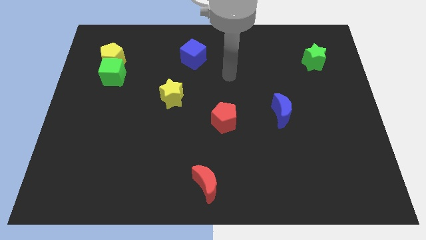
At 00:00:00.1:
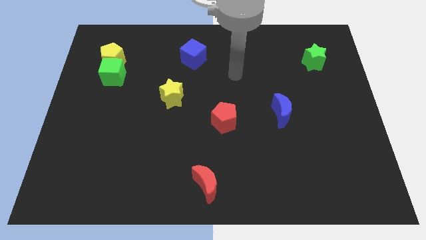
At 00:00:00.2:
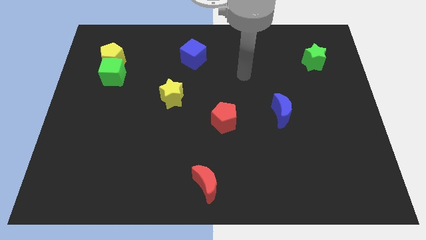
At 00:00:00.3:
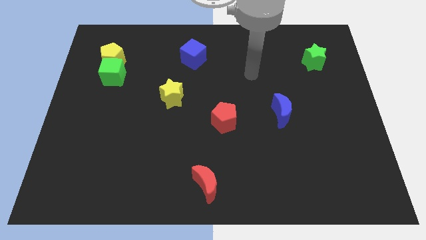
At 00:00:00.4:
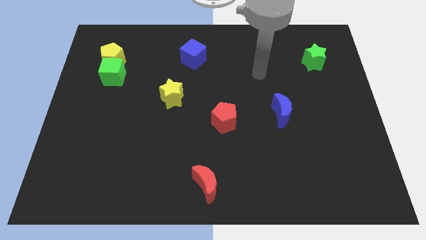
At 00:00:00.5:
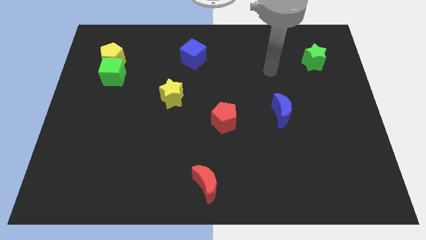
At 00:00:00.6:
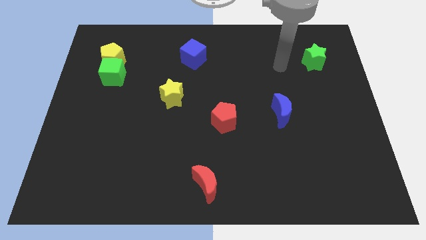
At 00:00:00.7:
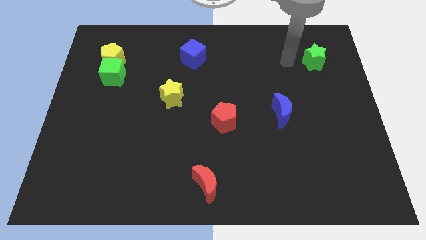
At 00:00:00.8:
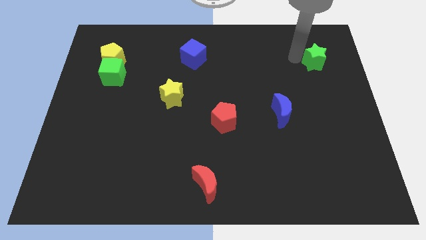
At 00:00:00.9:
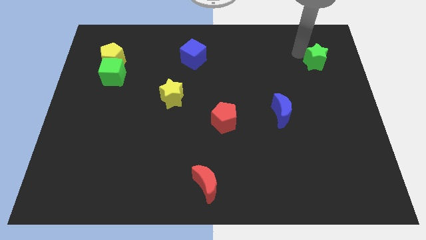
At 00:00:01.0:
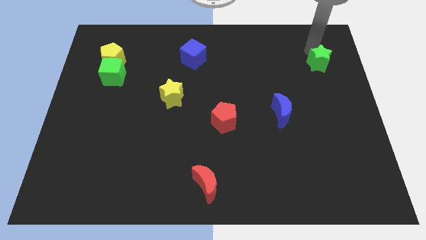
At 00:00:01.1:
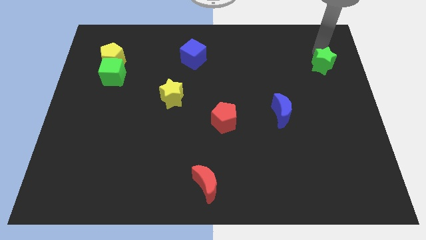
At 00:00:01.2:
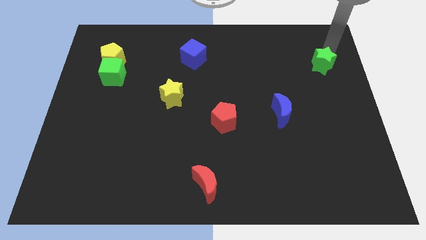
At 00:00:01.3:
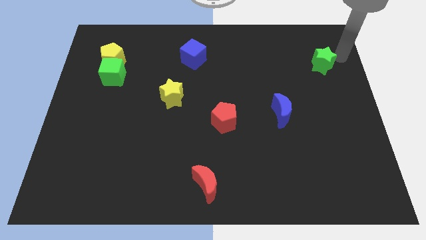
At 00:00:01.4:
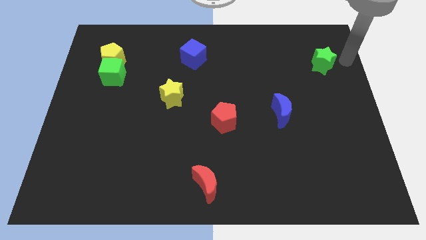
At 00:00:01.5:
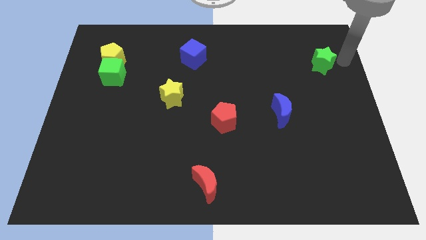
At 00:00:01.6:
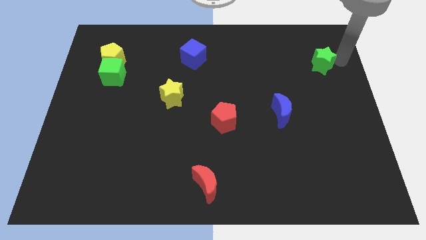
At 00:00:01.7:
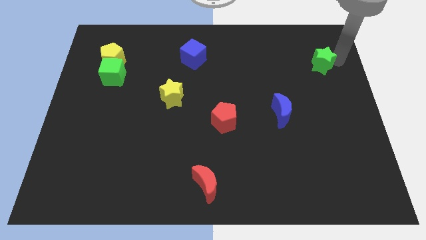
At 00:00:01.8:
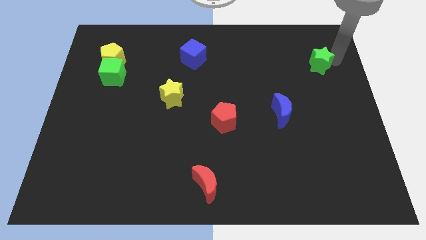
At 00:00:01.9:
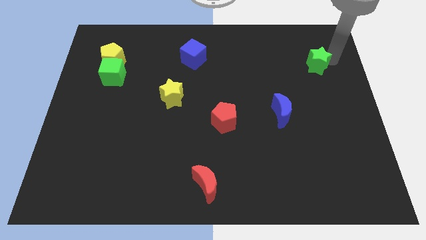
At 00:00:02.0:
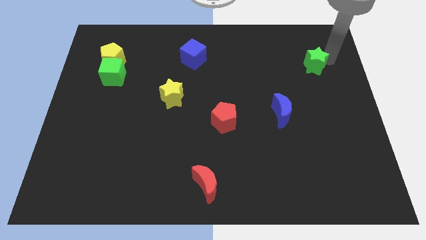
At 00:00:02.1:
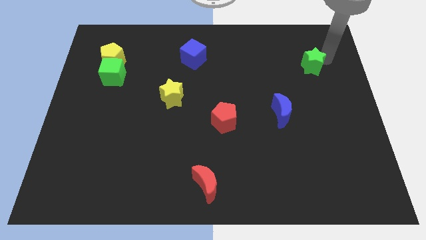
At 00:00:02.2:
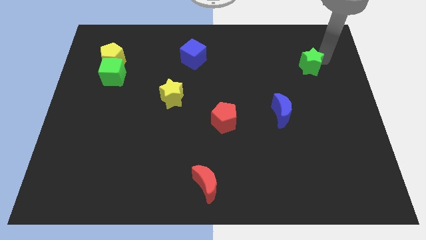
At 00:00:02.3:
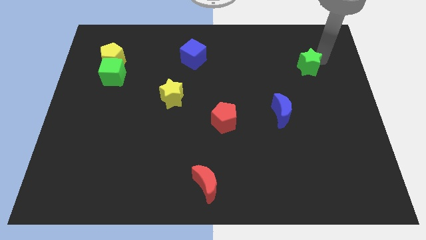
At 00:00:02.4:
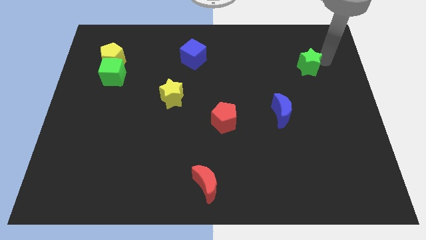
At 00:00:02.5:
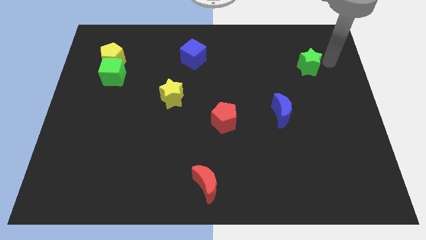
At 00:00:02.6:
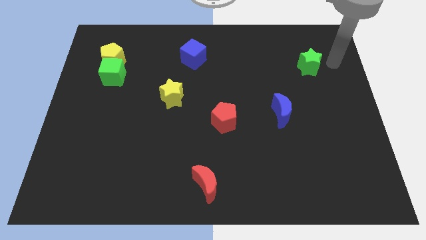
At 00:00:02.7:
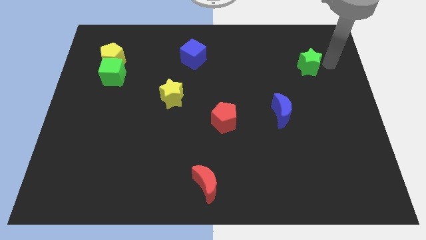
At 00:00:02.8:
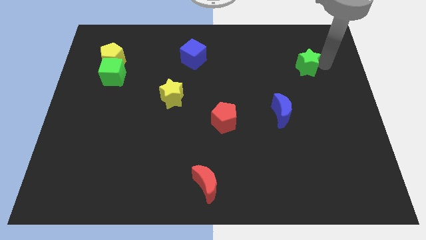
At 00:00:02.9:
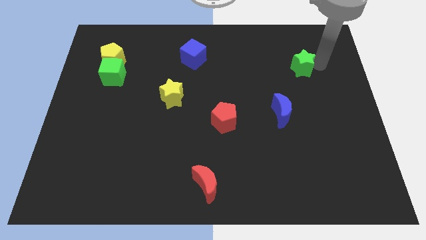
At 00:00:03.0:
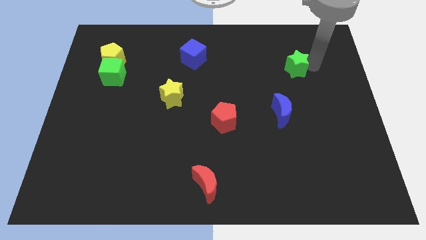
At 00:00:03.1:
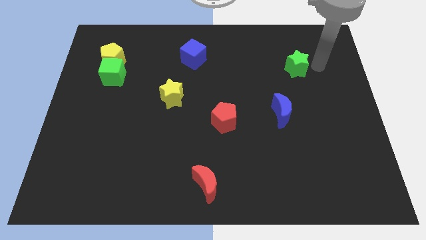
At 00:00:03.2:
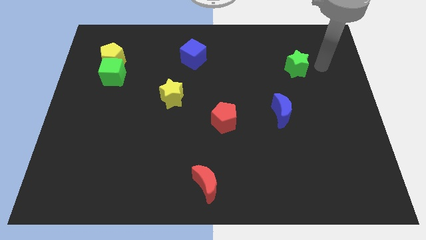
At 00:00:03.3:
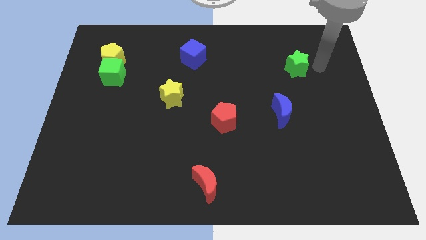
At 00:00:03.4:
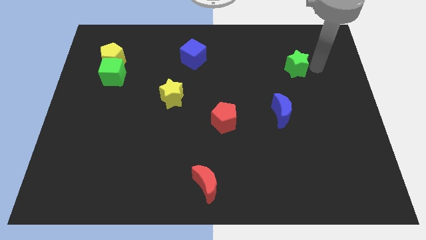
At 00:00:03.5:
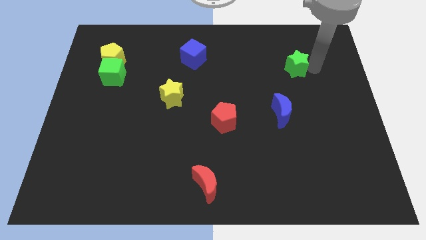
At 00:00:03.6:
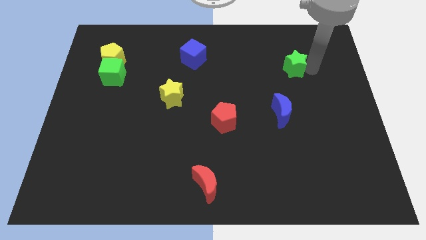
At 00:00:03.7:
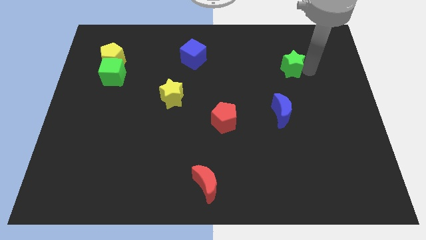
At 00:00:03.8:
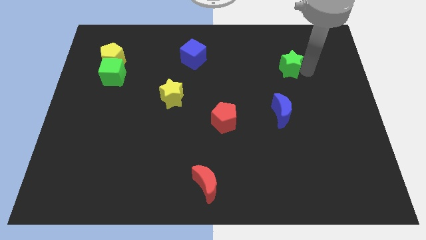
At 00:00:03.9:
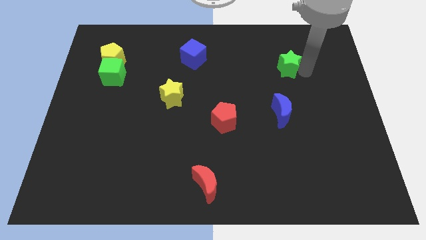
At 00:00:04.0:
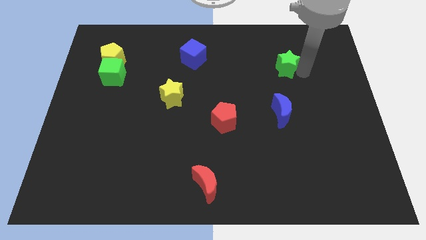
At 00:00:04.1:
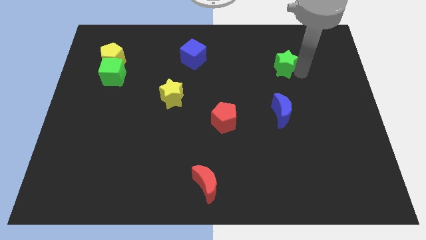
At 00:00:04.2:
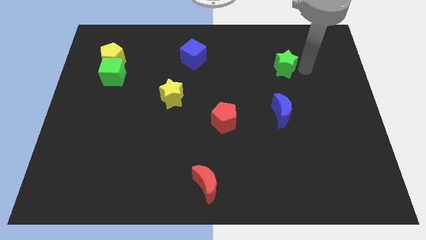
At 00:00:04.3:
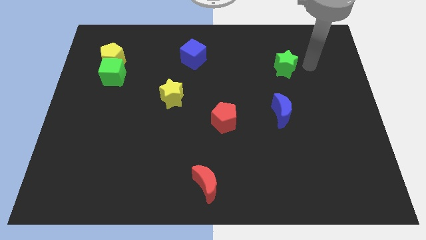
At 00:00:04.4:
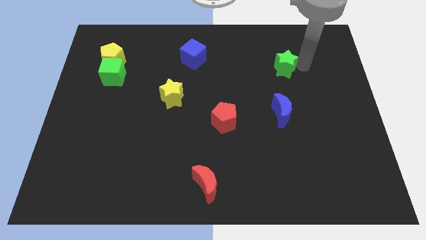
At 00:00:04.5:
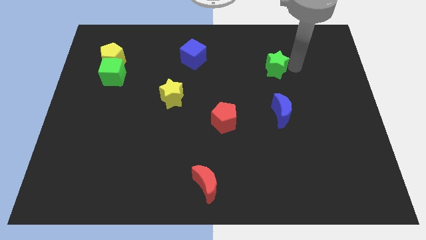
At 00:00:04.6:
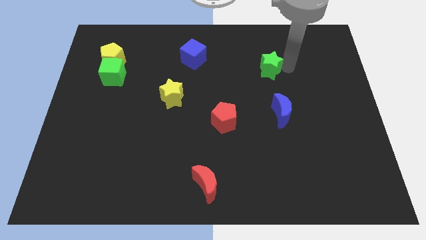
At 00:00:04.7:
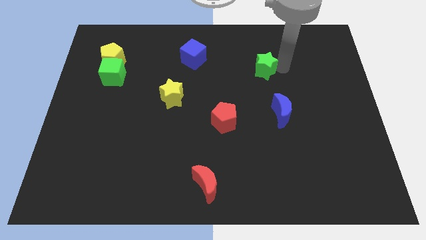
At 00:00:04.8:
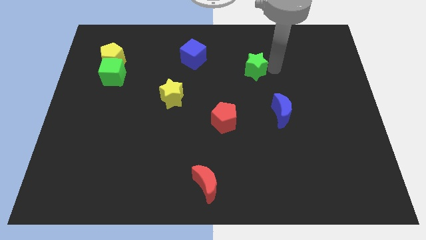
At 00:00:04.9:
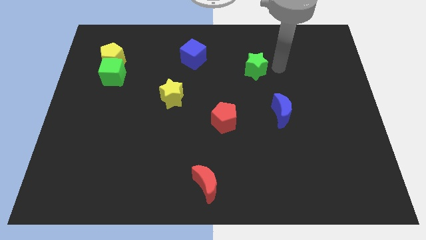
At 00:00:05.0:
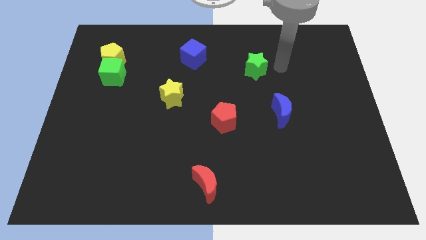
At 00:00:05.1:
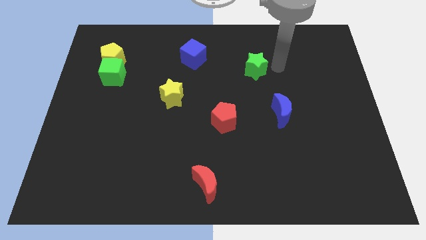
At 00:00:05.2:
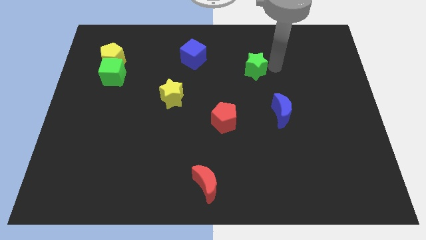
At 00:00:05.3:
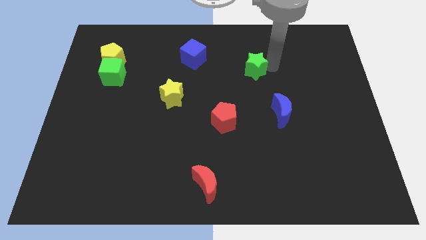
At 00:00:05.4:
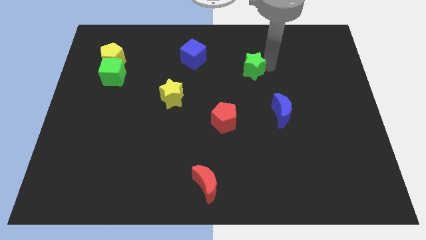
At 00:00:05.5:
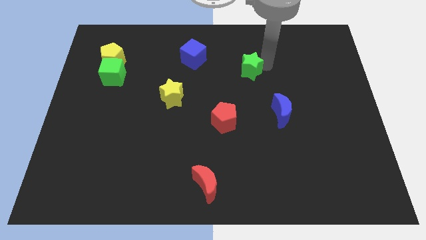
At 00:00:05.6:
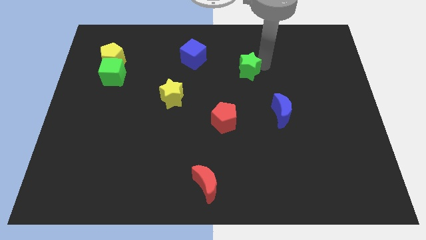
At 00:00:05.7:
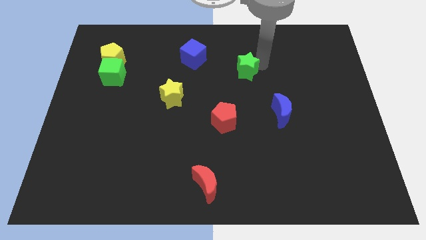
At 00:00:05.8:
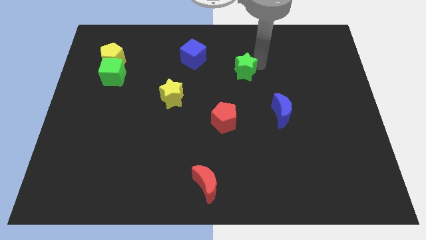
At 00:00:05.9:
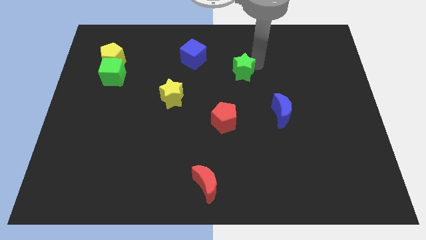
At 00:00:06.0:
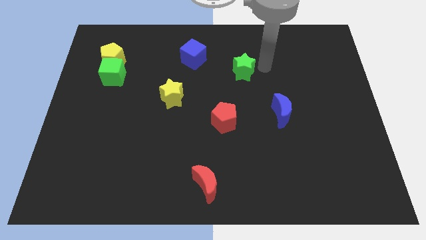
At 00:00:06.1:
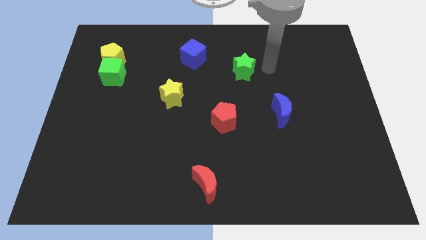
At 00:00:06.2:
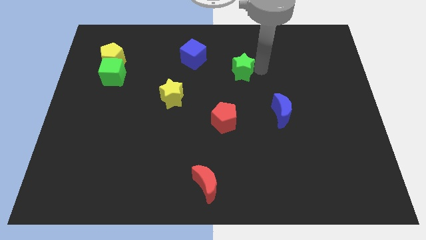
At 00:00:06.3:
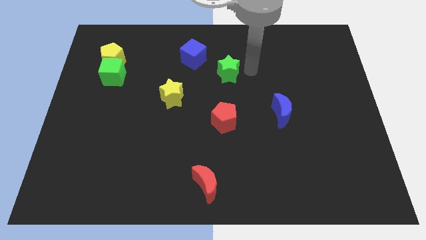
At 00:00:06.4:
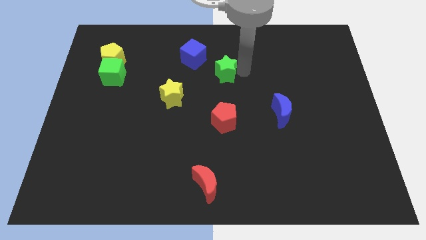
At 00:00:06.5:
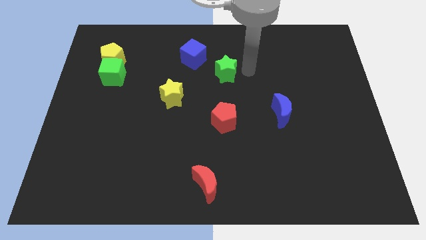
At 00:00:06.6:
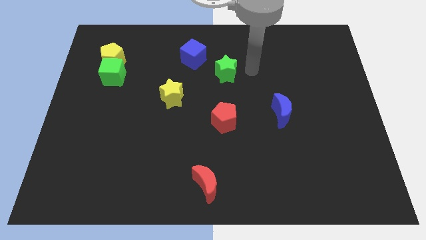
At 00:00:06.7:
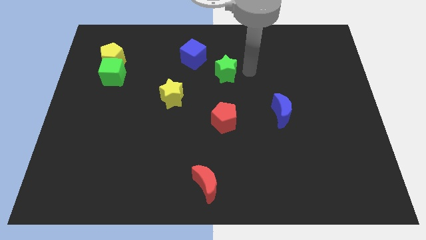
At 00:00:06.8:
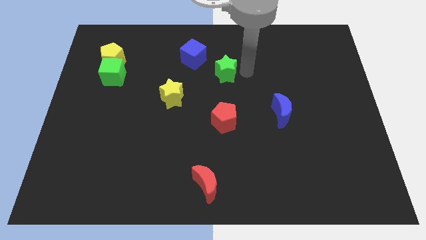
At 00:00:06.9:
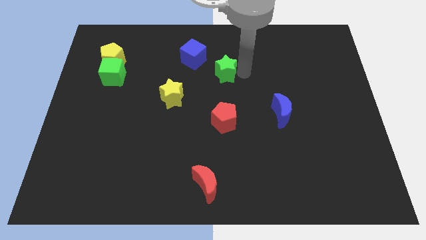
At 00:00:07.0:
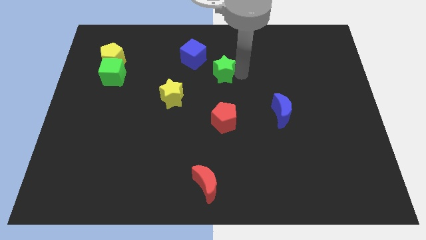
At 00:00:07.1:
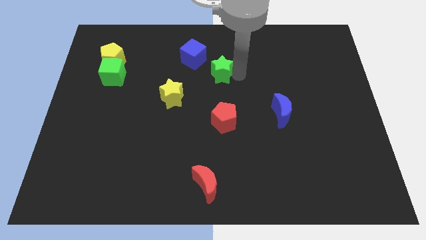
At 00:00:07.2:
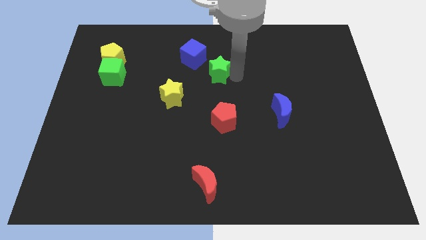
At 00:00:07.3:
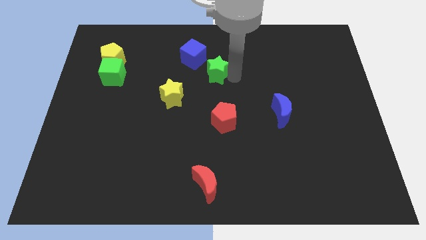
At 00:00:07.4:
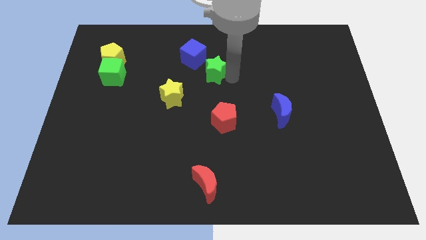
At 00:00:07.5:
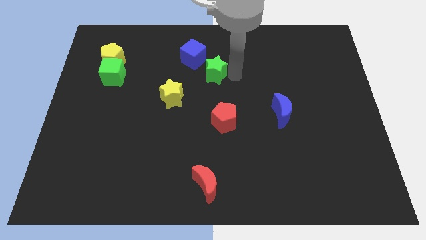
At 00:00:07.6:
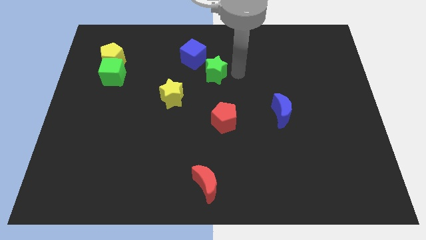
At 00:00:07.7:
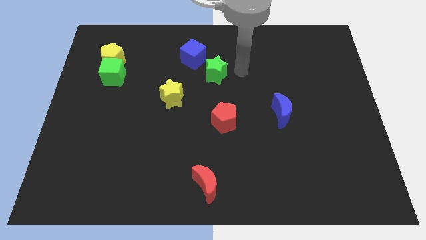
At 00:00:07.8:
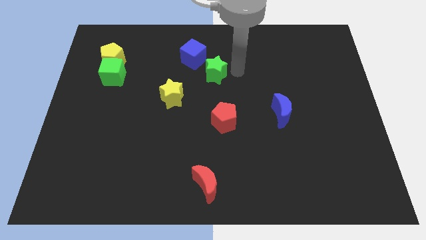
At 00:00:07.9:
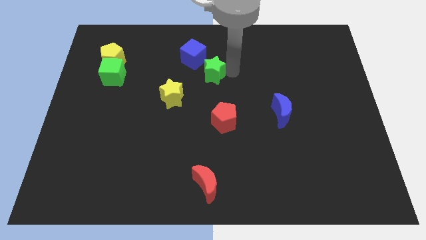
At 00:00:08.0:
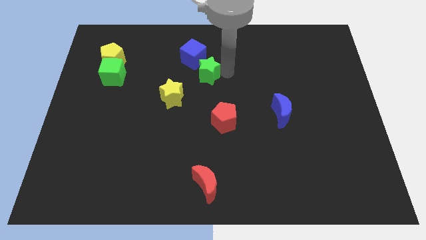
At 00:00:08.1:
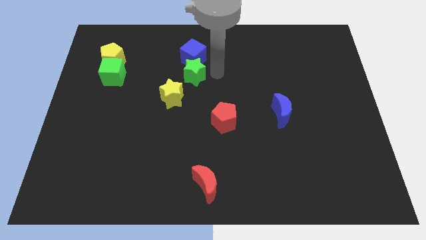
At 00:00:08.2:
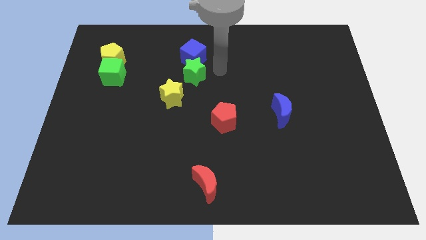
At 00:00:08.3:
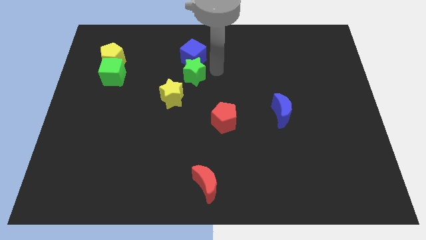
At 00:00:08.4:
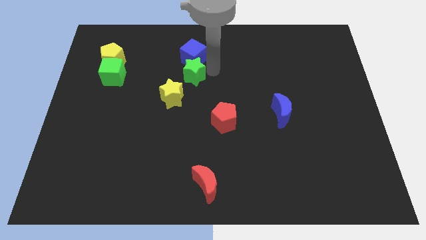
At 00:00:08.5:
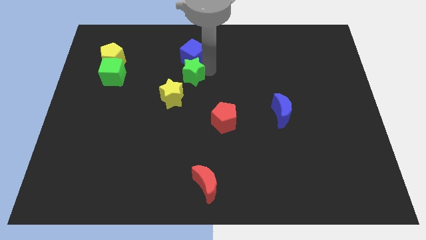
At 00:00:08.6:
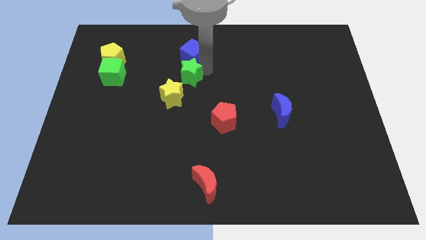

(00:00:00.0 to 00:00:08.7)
put the green star to the top side of the yellow star
